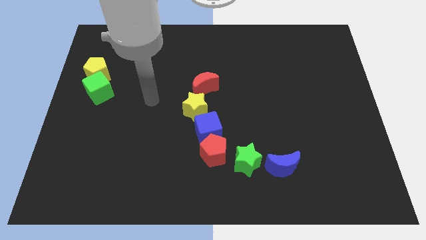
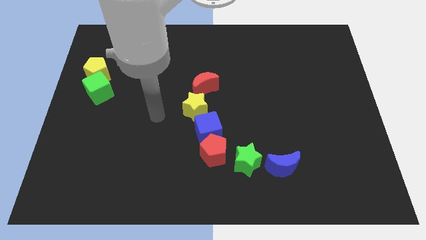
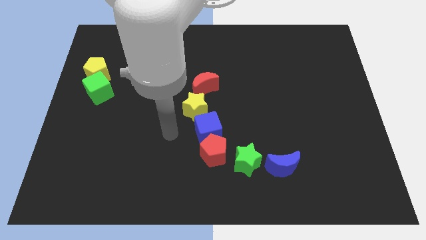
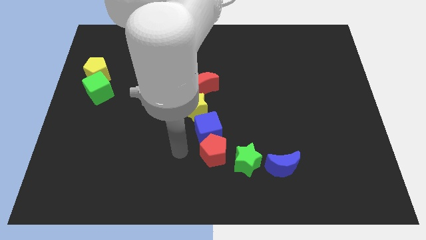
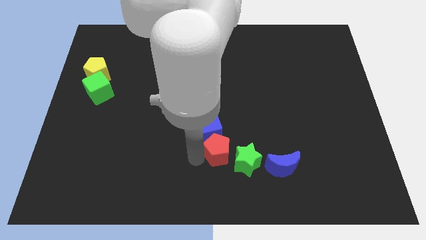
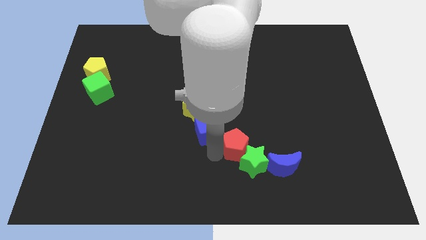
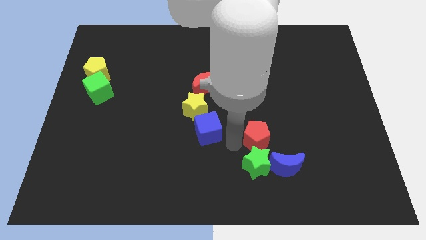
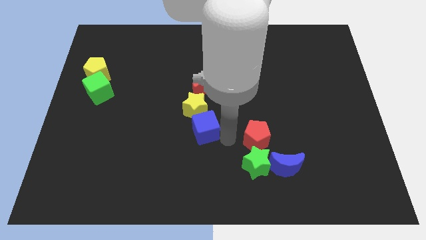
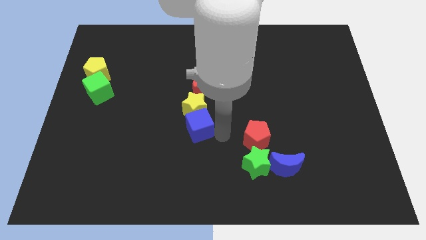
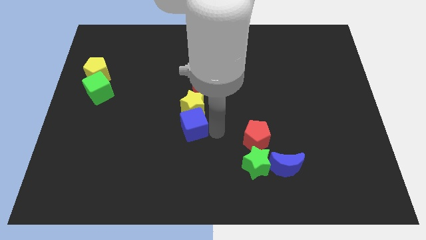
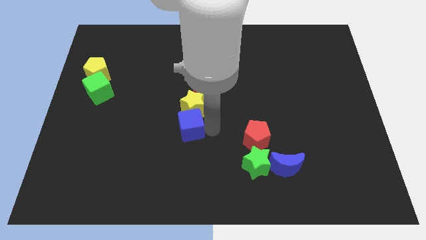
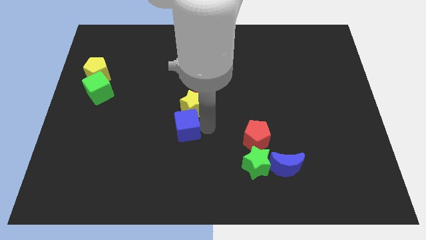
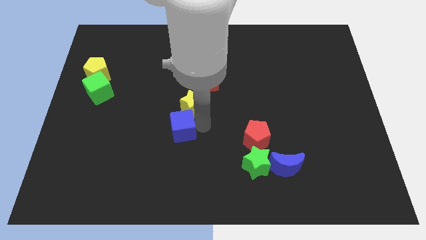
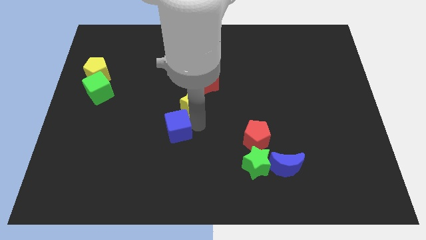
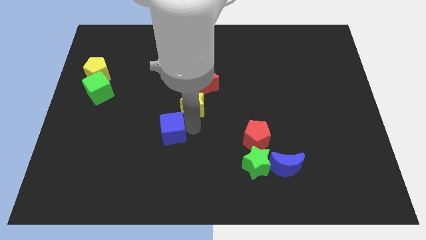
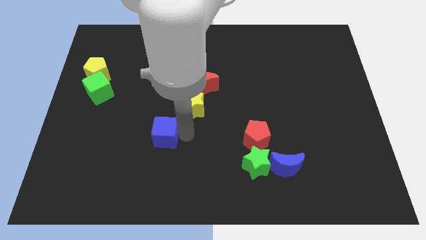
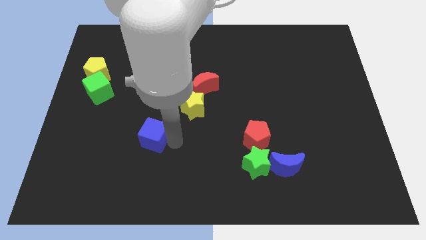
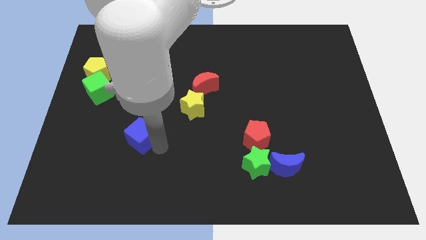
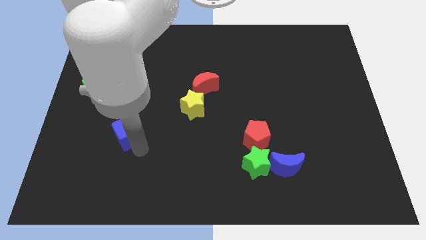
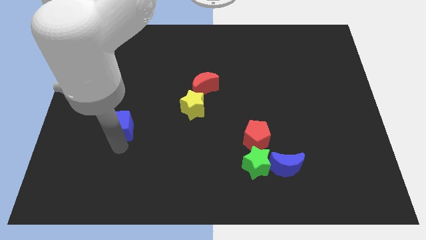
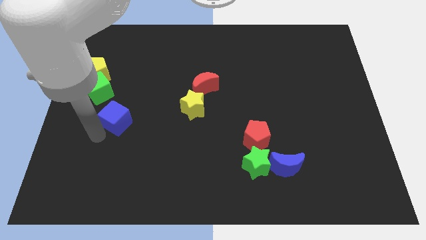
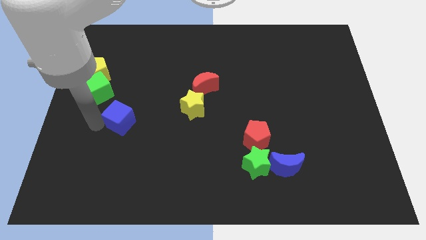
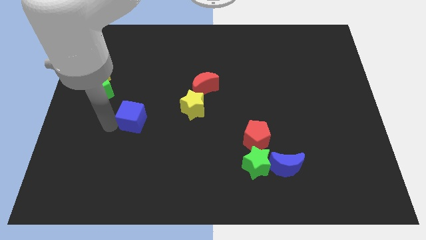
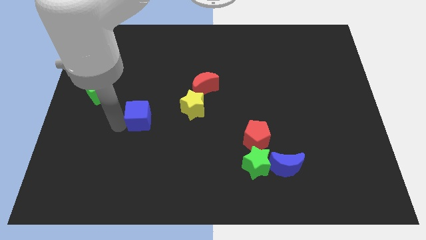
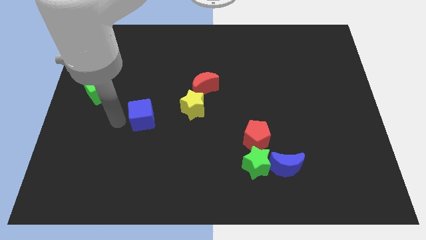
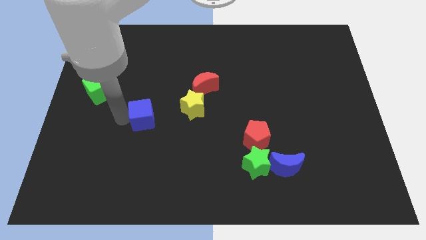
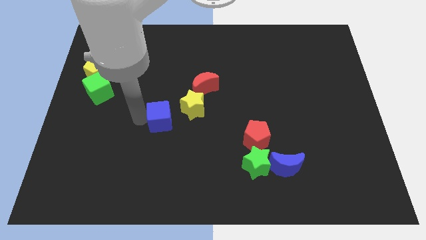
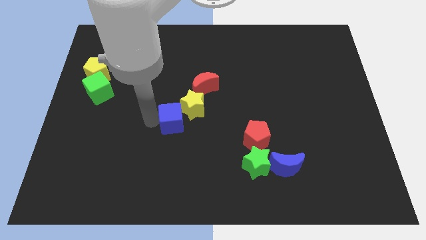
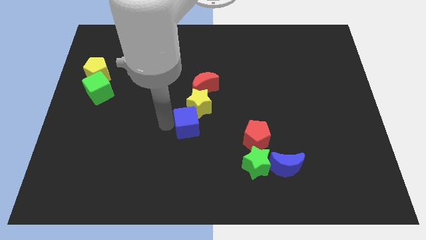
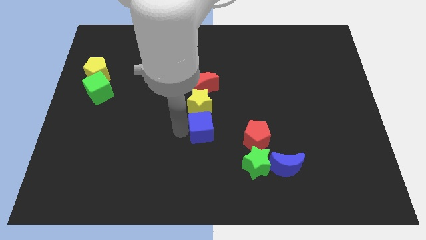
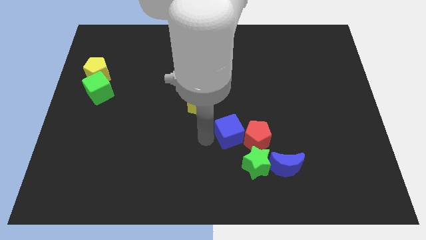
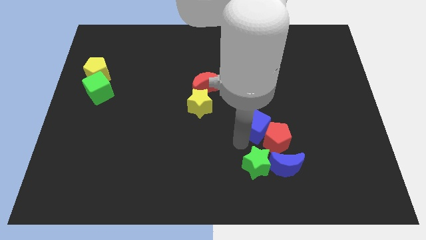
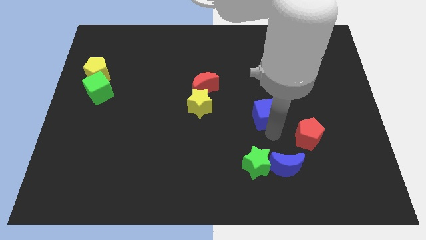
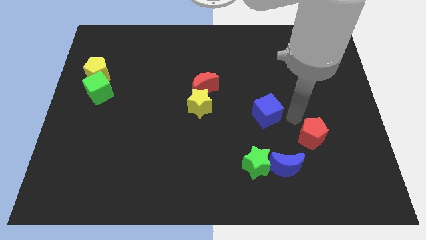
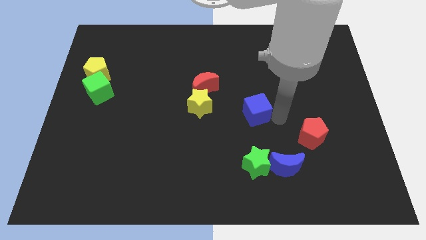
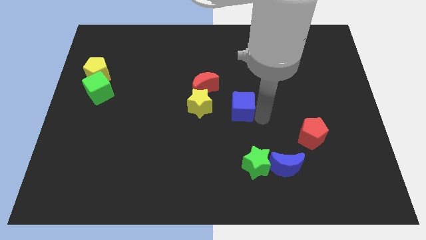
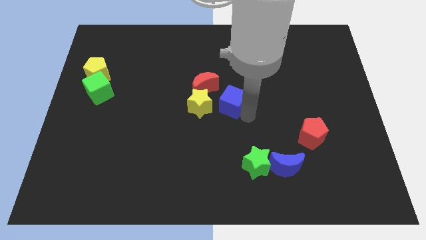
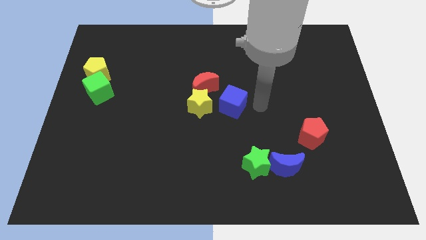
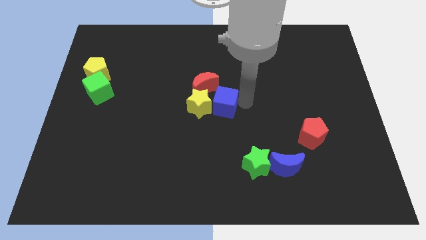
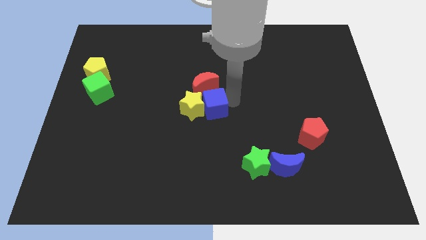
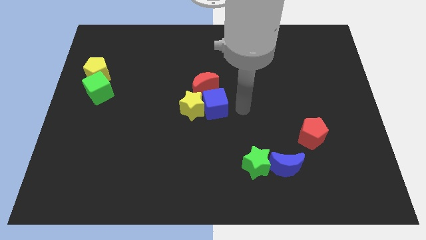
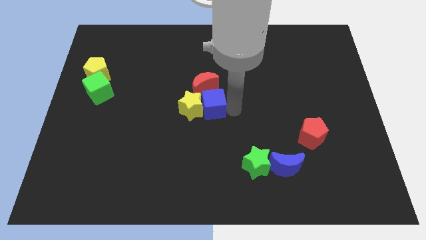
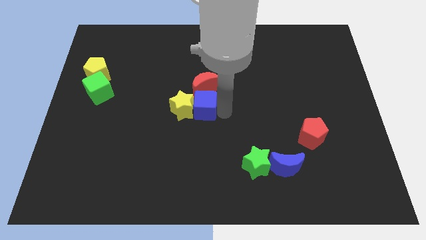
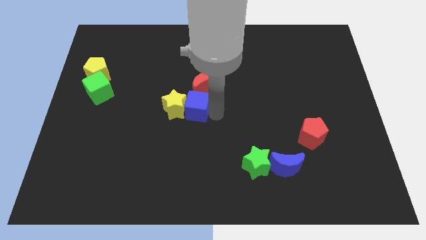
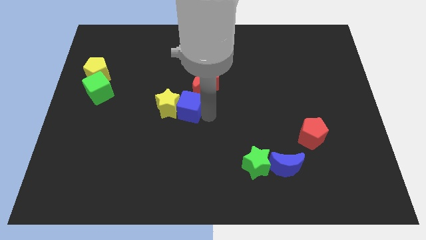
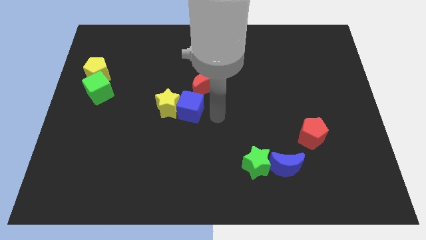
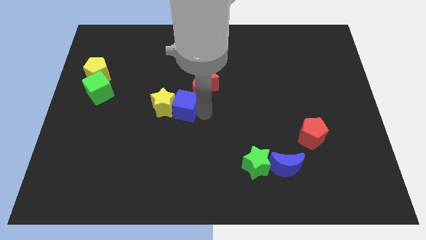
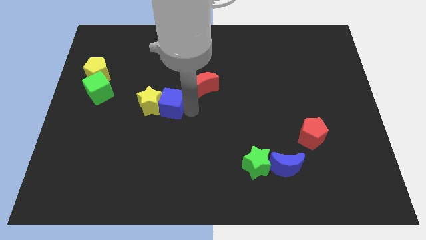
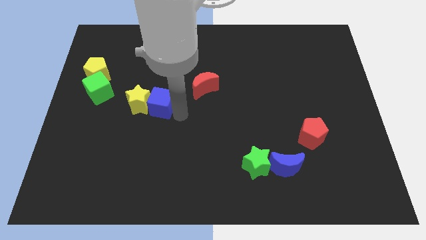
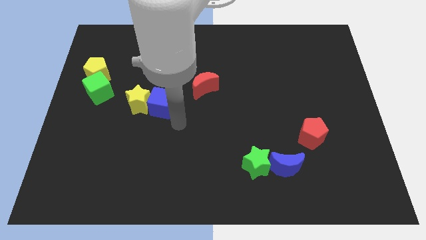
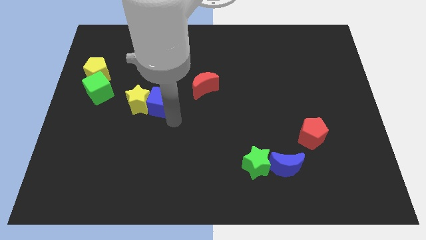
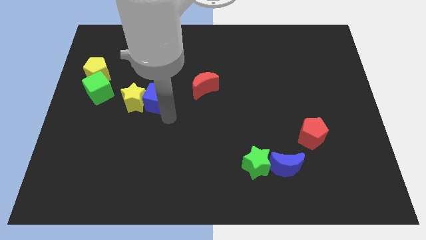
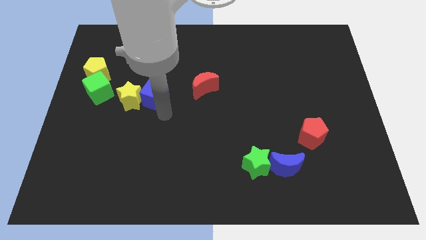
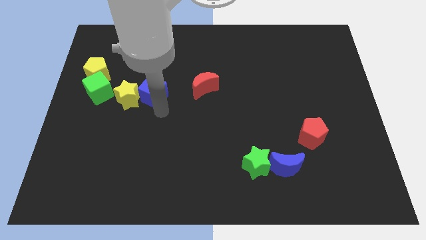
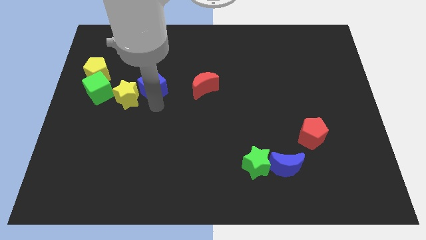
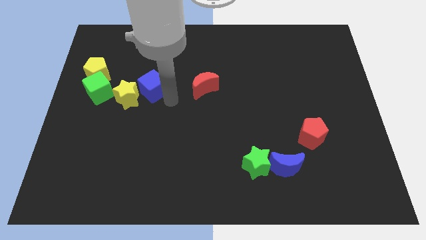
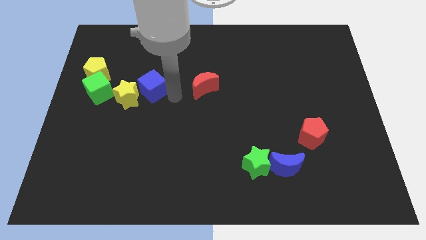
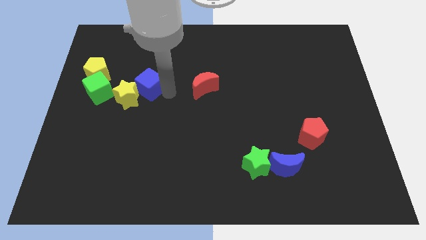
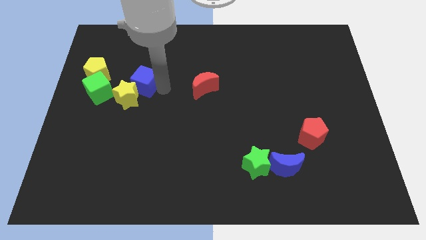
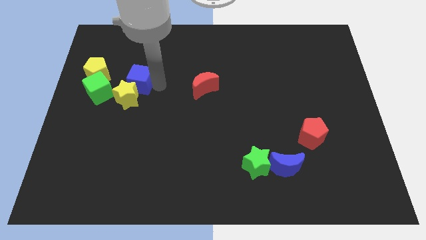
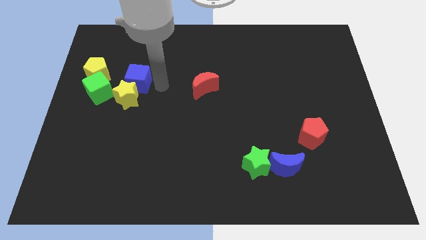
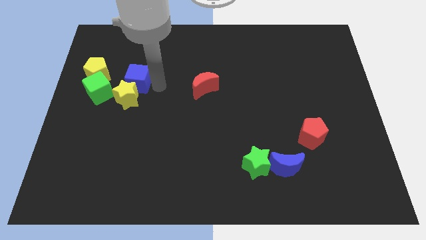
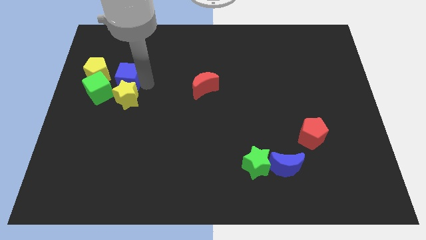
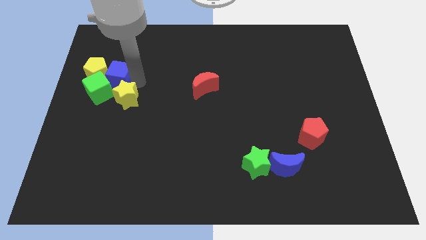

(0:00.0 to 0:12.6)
push the blue cube close to the yellow pentagon

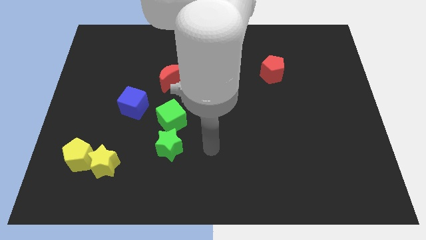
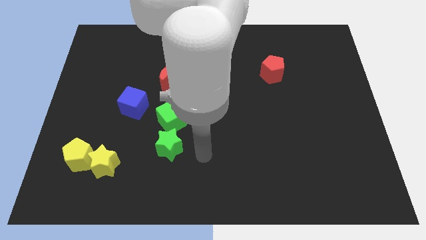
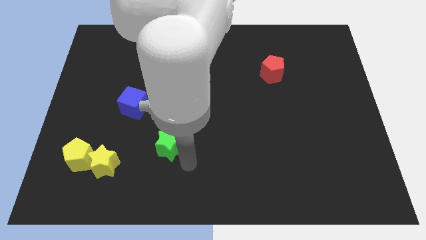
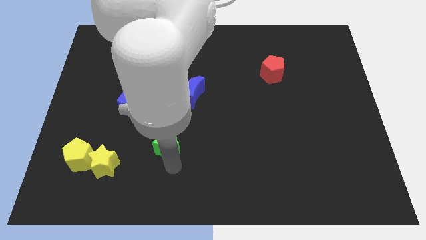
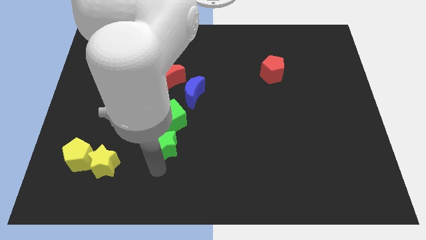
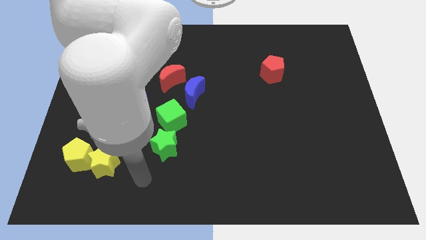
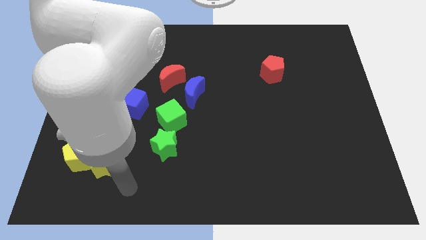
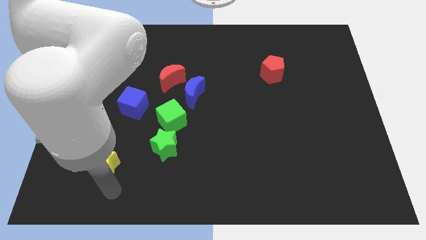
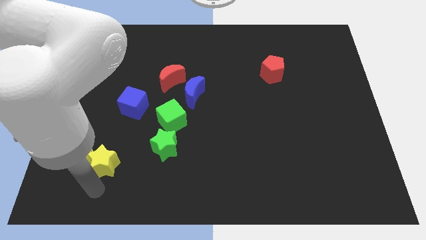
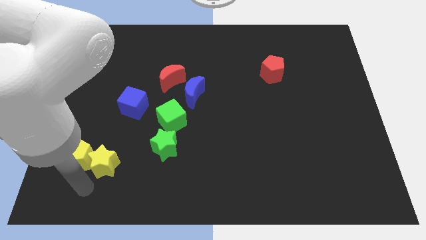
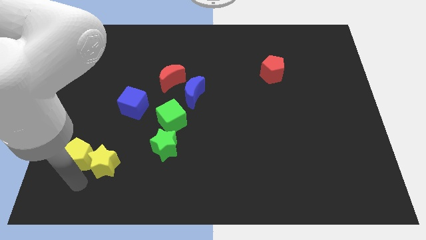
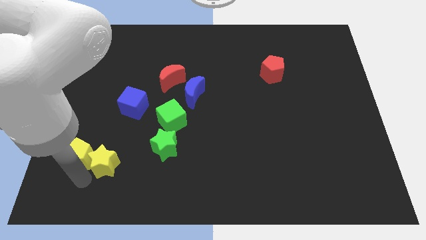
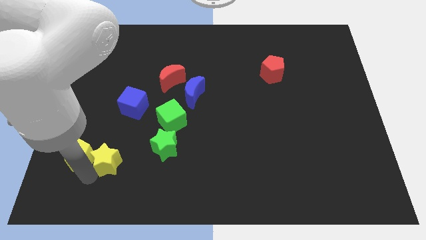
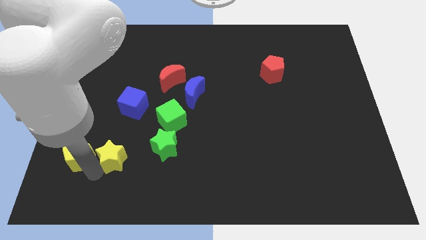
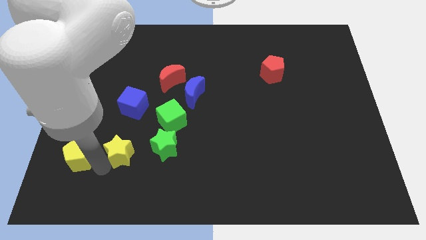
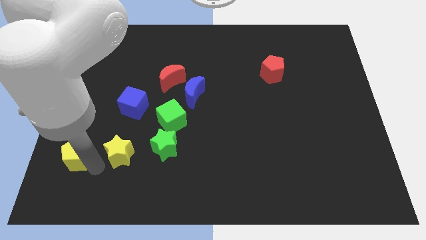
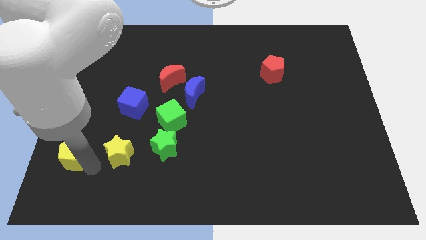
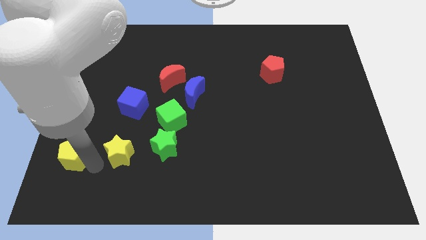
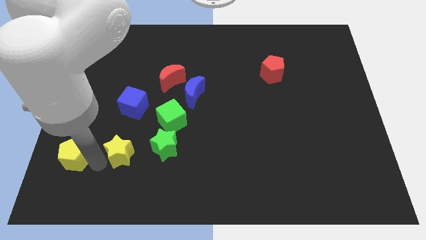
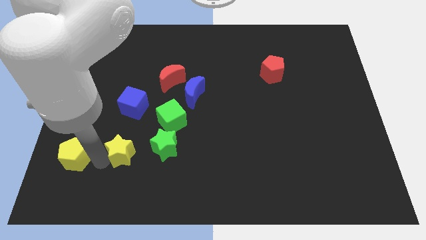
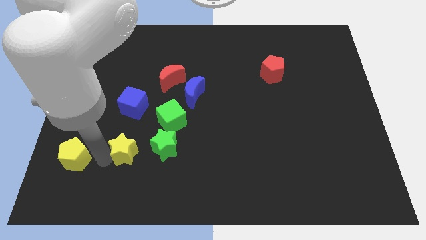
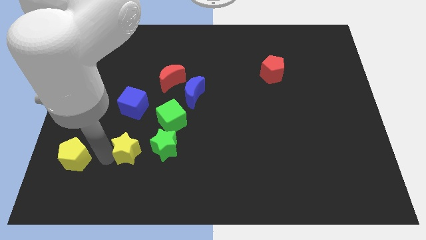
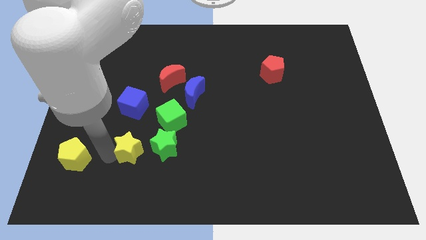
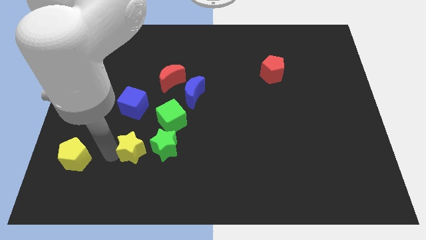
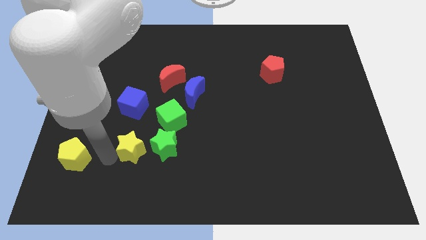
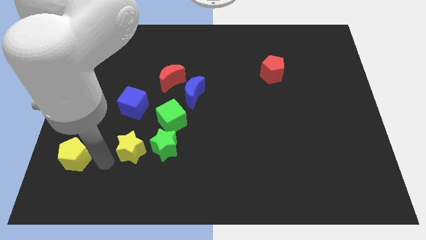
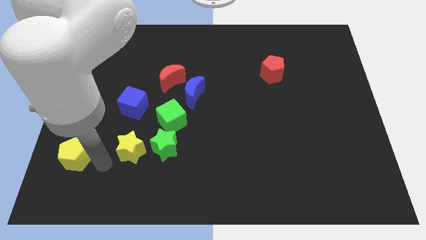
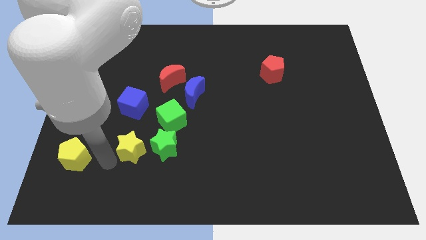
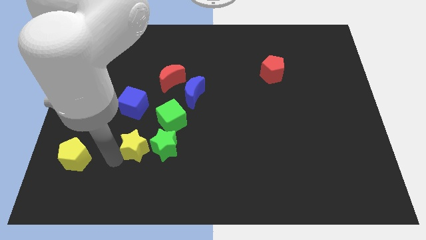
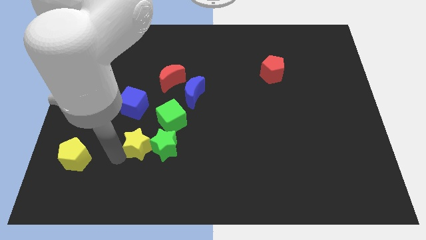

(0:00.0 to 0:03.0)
push the yellow star to the green star
